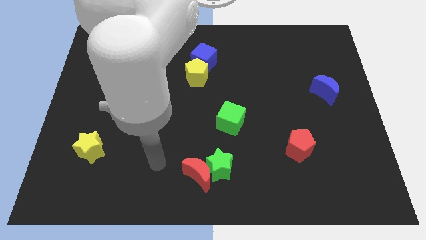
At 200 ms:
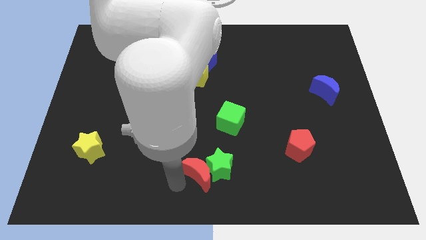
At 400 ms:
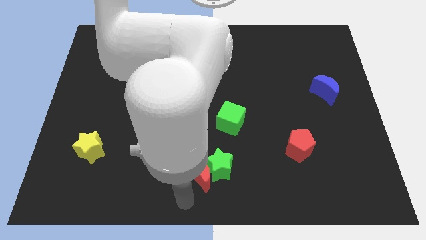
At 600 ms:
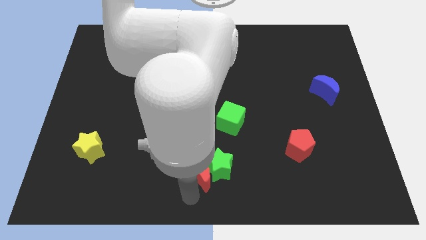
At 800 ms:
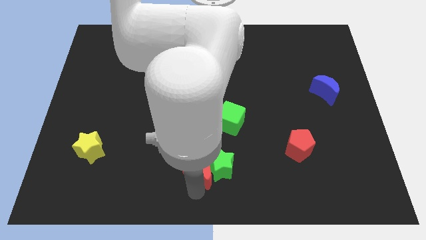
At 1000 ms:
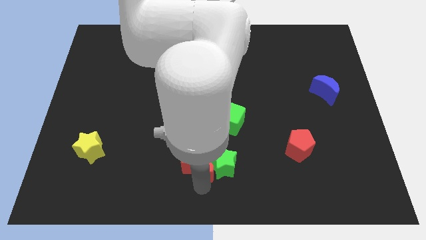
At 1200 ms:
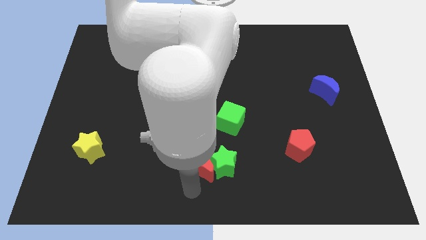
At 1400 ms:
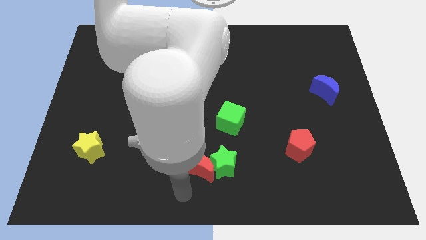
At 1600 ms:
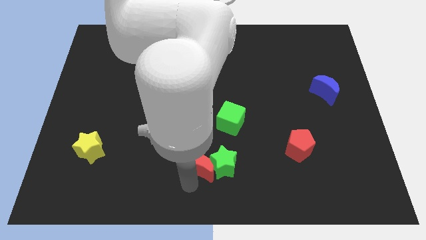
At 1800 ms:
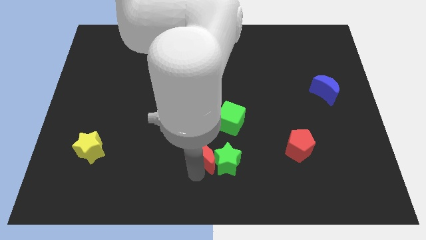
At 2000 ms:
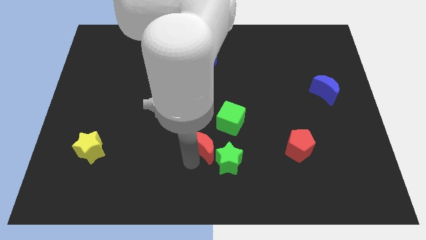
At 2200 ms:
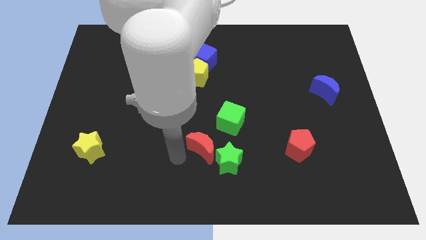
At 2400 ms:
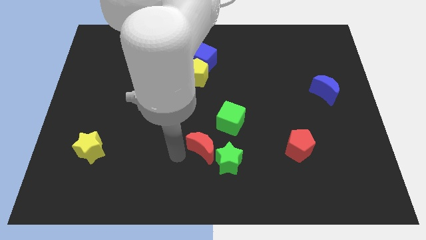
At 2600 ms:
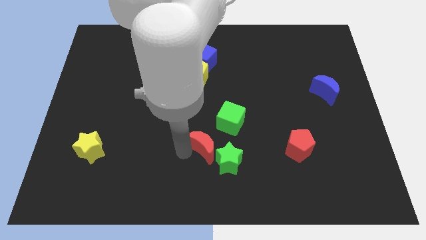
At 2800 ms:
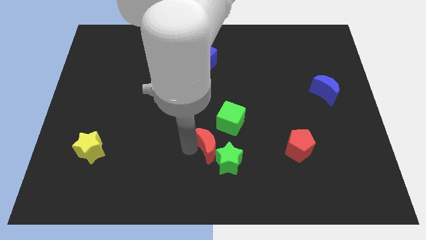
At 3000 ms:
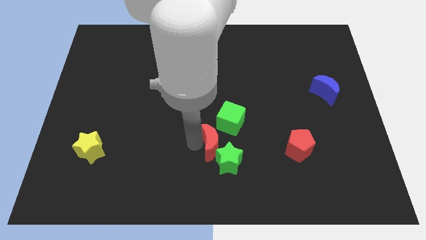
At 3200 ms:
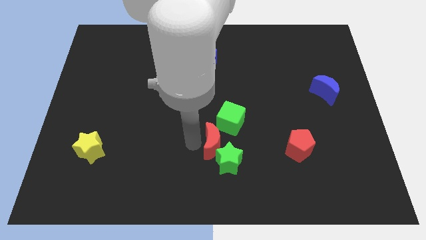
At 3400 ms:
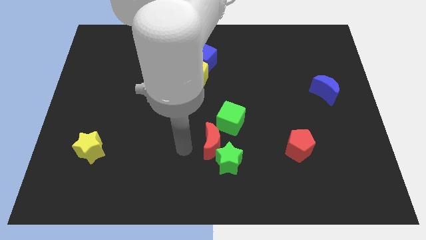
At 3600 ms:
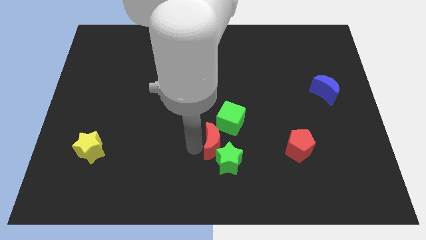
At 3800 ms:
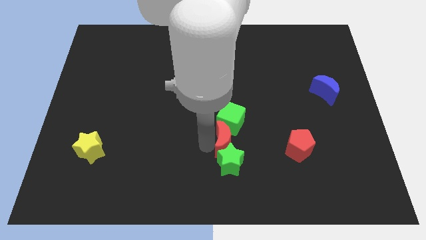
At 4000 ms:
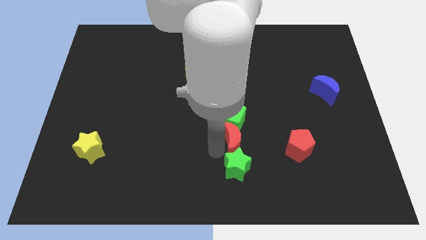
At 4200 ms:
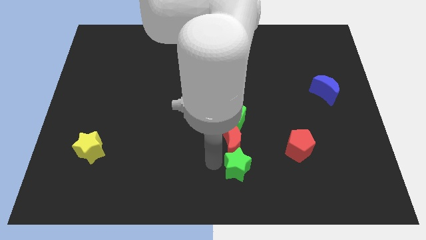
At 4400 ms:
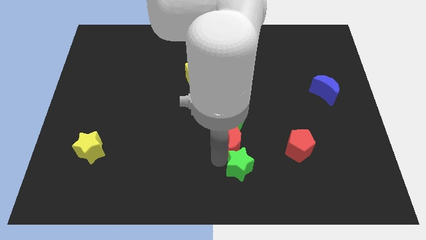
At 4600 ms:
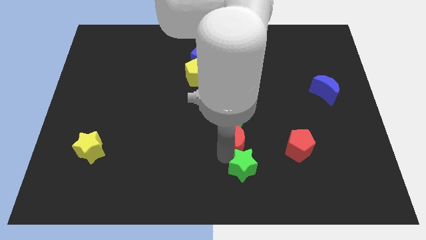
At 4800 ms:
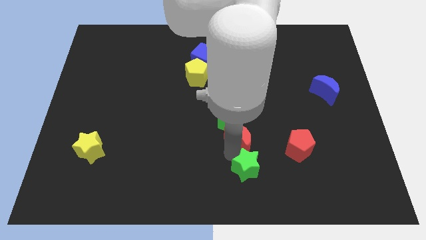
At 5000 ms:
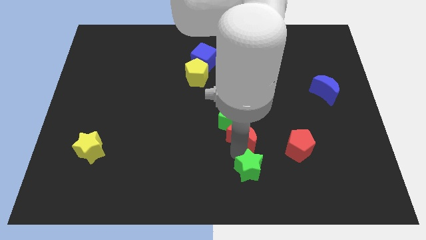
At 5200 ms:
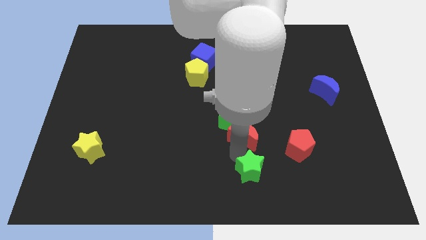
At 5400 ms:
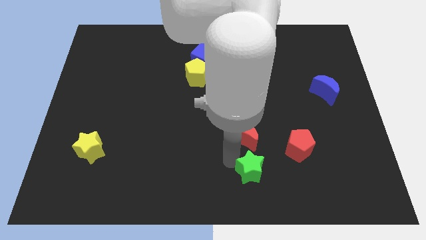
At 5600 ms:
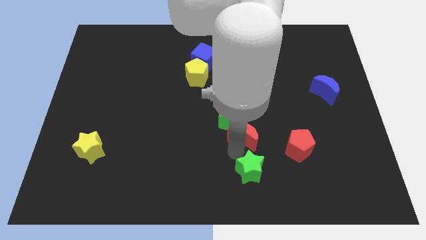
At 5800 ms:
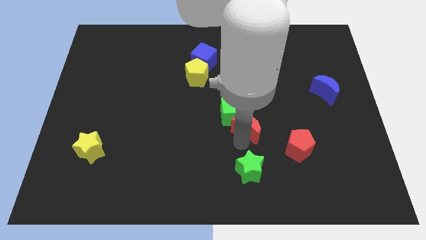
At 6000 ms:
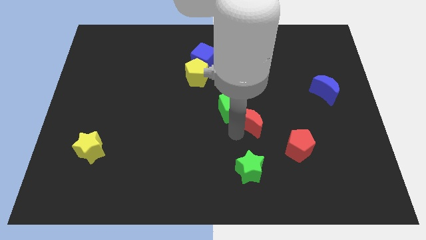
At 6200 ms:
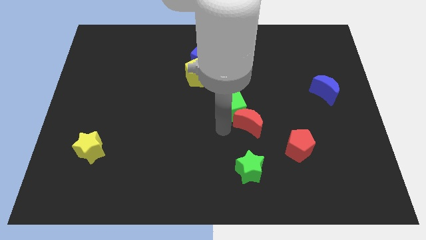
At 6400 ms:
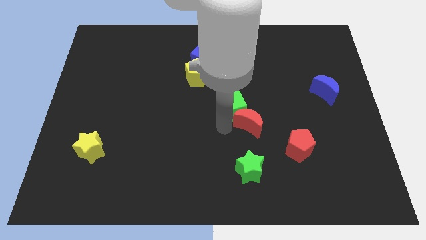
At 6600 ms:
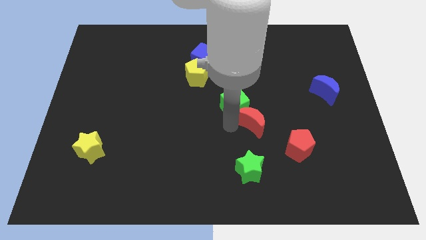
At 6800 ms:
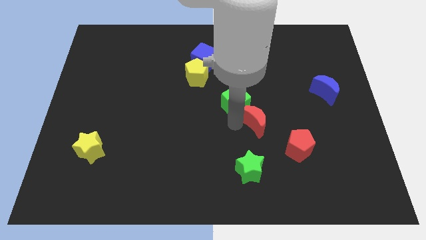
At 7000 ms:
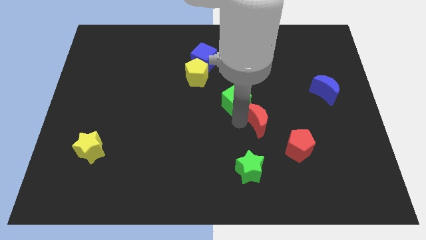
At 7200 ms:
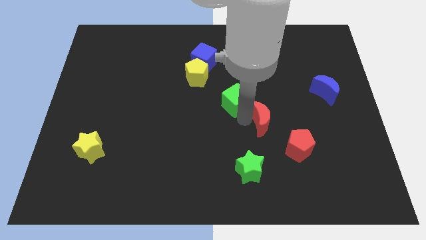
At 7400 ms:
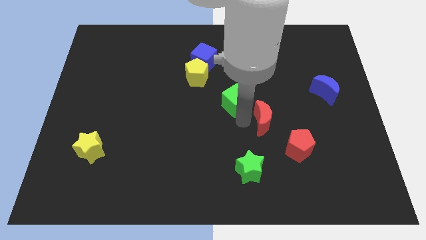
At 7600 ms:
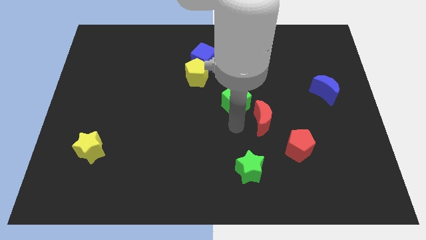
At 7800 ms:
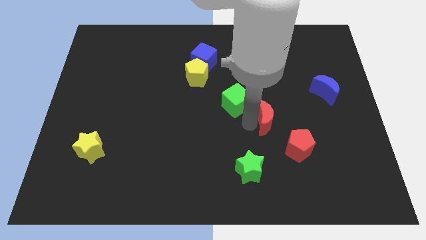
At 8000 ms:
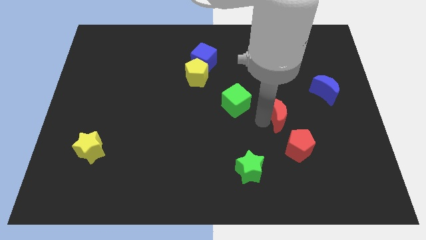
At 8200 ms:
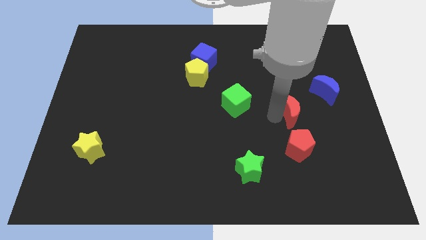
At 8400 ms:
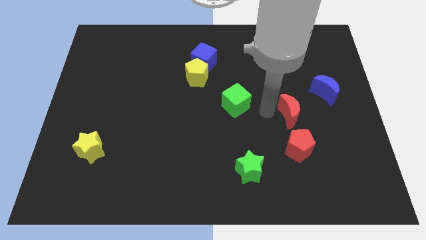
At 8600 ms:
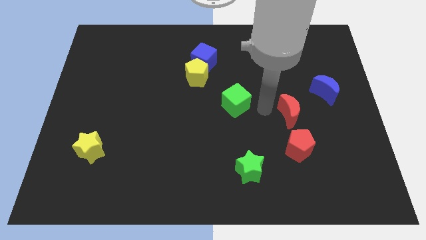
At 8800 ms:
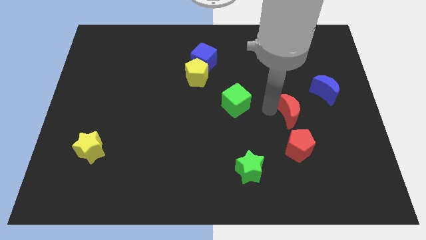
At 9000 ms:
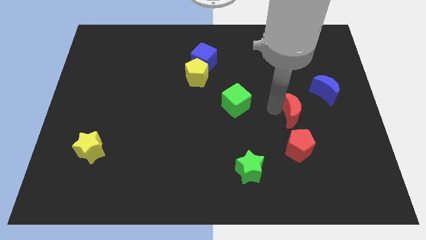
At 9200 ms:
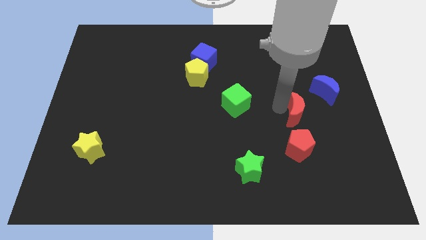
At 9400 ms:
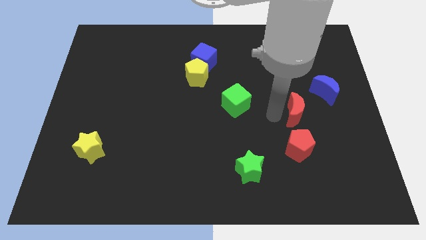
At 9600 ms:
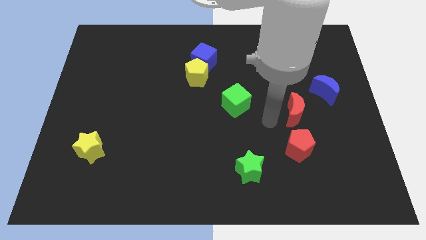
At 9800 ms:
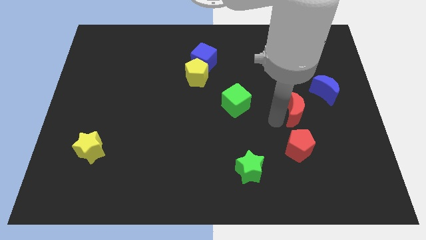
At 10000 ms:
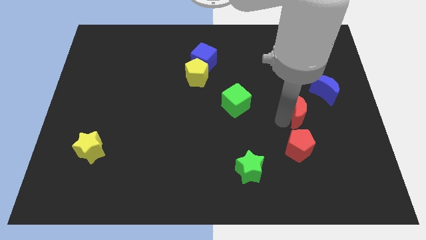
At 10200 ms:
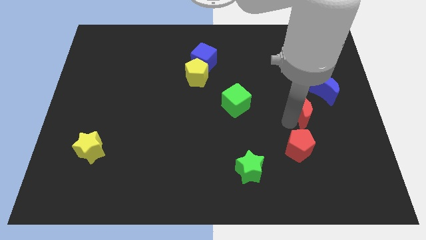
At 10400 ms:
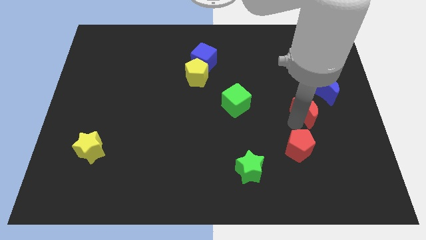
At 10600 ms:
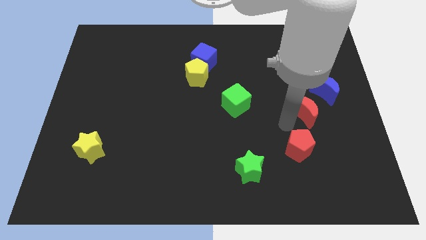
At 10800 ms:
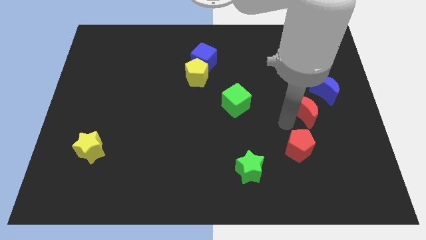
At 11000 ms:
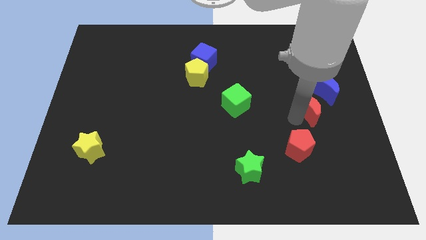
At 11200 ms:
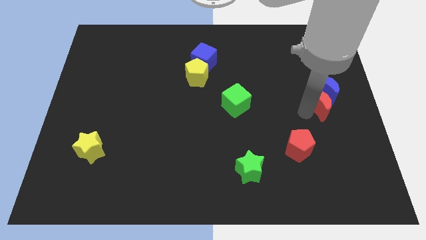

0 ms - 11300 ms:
push the red moon to the right side of the board
